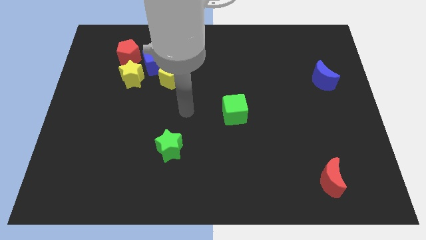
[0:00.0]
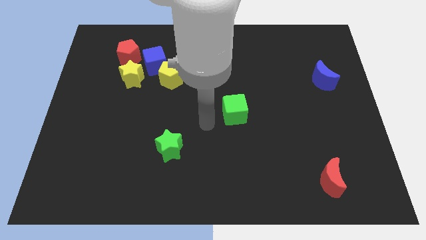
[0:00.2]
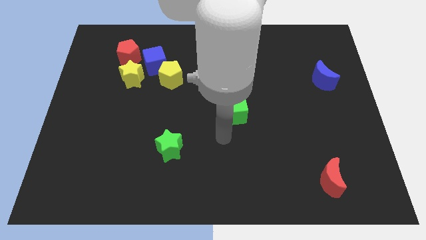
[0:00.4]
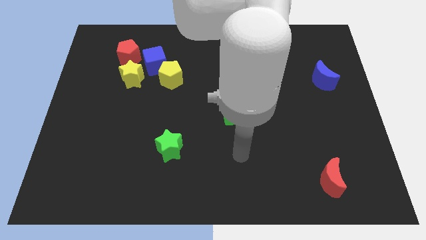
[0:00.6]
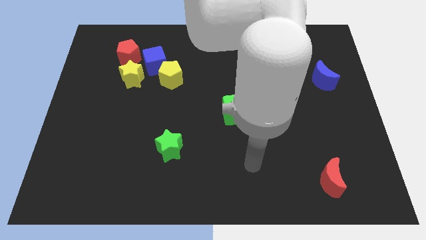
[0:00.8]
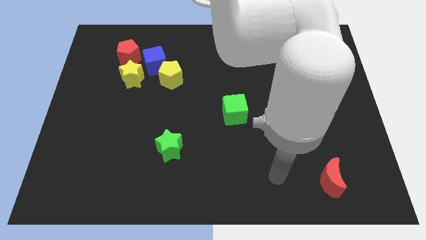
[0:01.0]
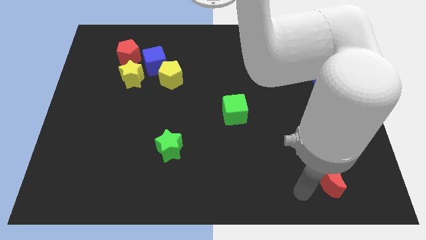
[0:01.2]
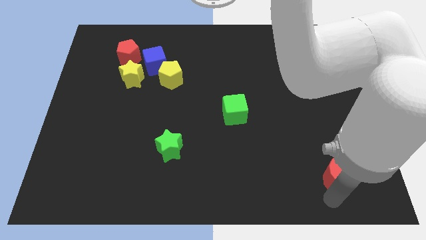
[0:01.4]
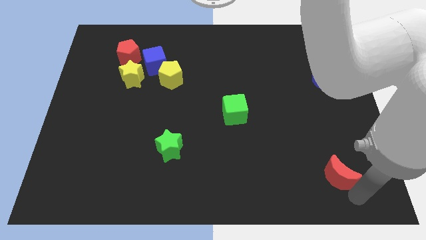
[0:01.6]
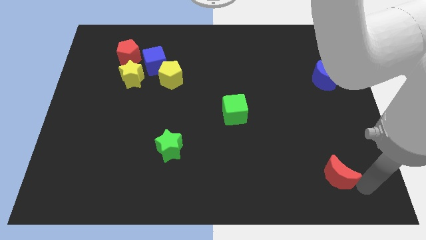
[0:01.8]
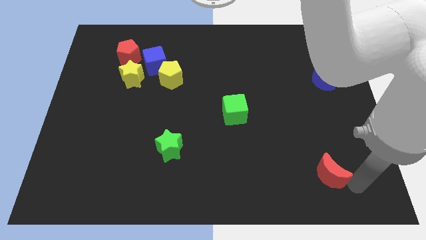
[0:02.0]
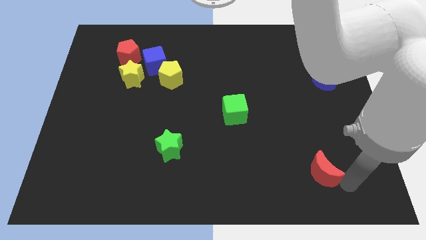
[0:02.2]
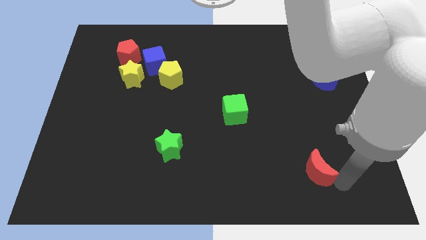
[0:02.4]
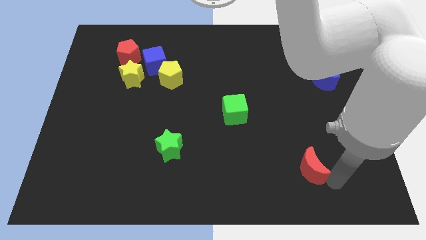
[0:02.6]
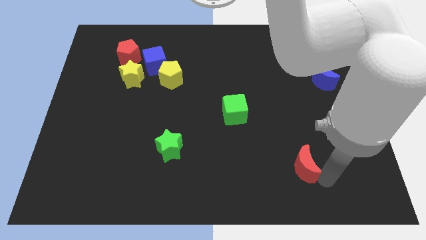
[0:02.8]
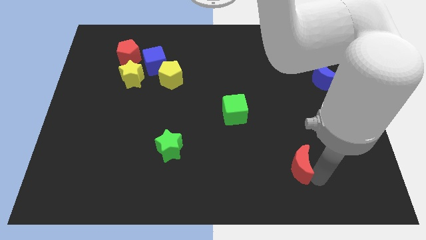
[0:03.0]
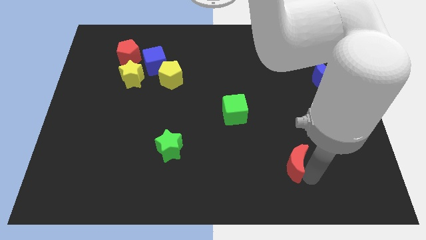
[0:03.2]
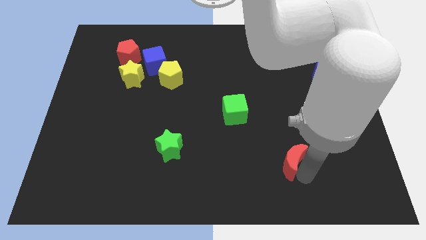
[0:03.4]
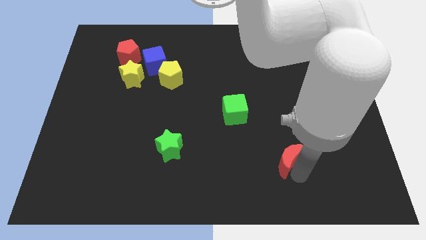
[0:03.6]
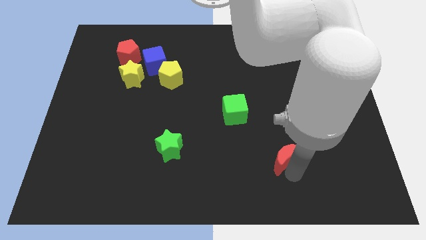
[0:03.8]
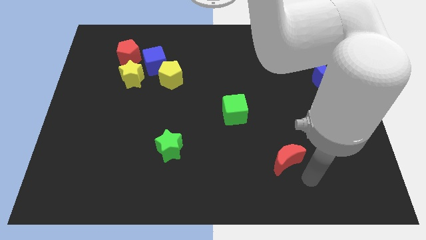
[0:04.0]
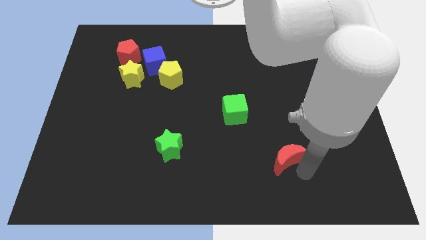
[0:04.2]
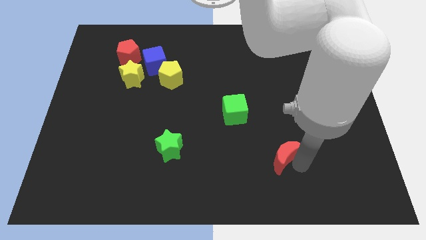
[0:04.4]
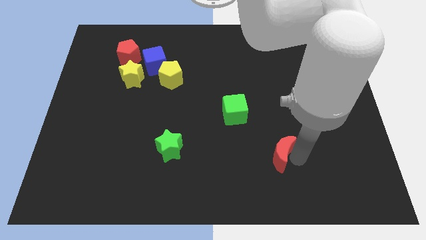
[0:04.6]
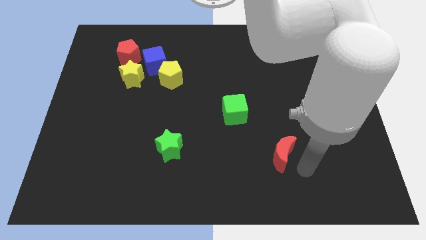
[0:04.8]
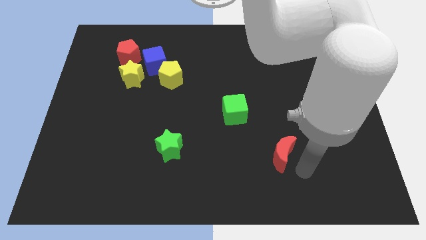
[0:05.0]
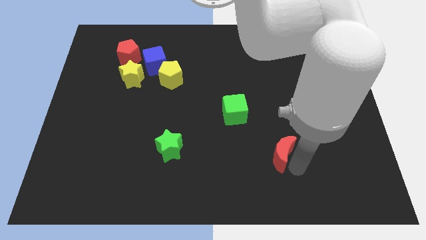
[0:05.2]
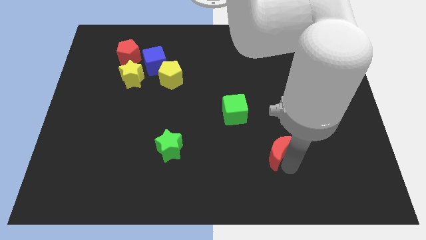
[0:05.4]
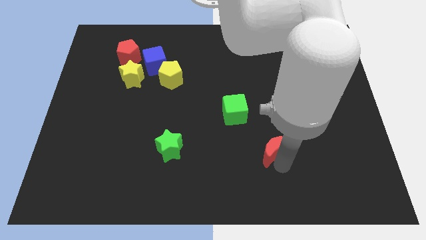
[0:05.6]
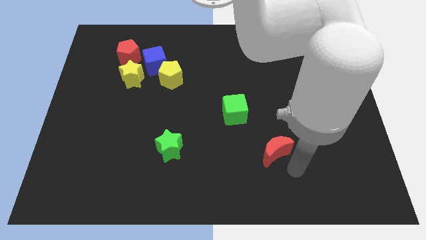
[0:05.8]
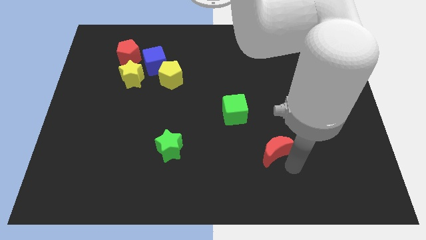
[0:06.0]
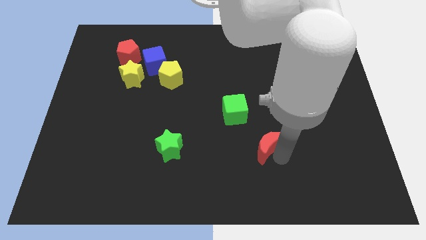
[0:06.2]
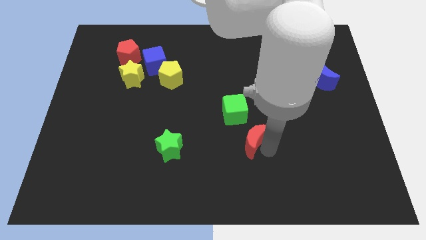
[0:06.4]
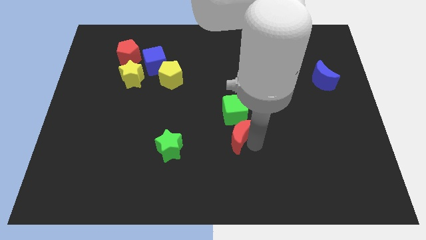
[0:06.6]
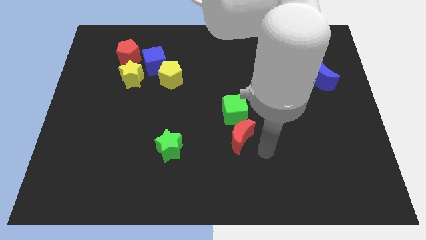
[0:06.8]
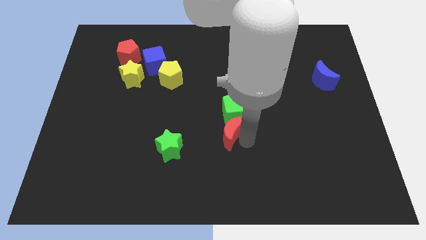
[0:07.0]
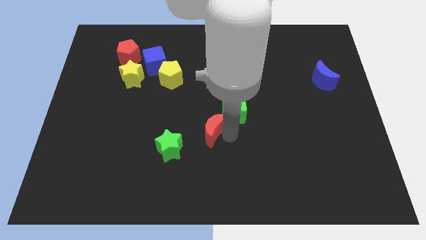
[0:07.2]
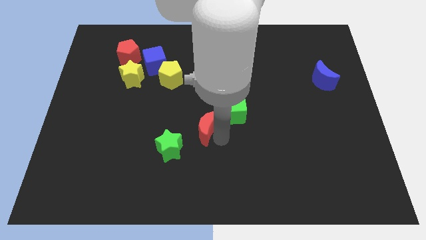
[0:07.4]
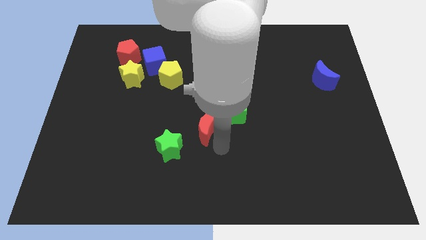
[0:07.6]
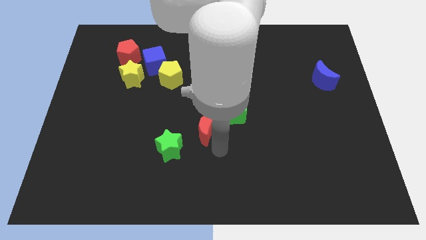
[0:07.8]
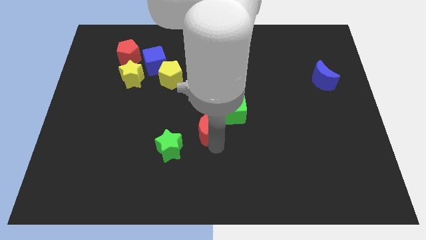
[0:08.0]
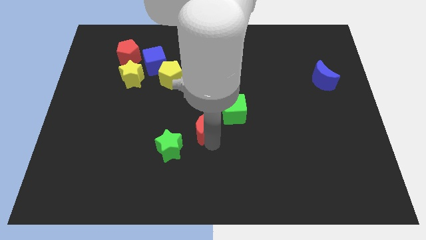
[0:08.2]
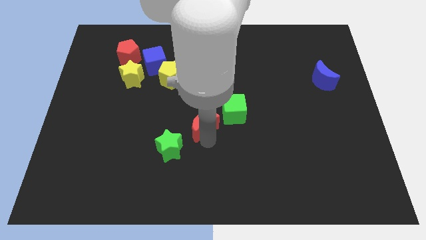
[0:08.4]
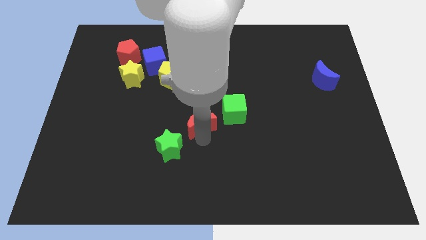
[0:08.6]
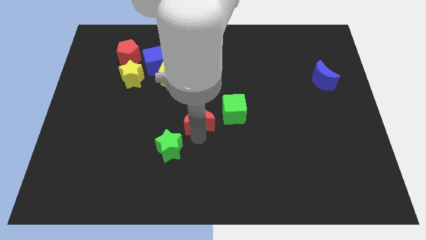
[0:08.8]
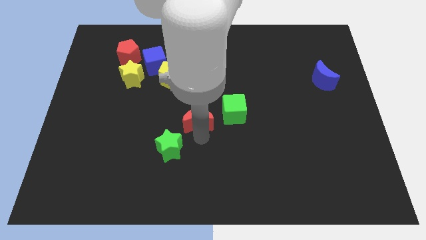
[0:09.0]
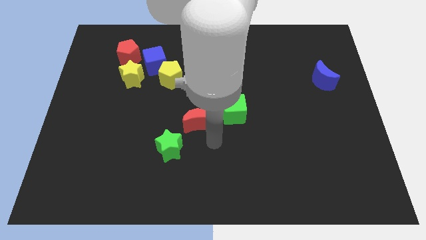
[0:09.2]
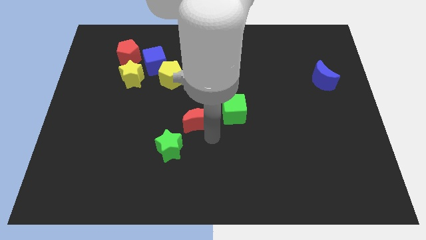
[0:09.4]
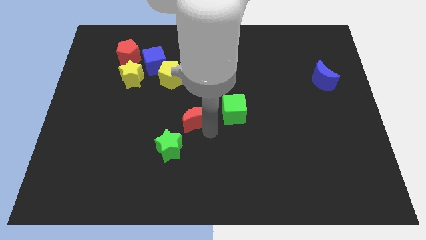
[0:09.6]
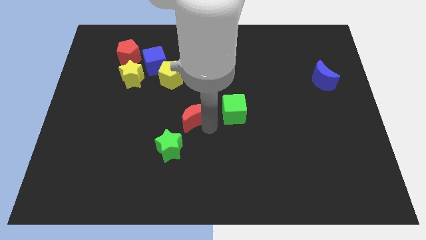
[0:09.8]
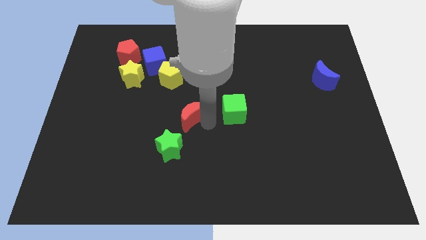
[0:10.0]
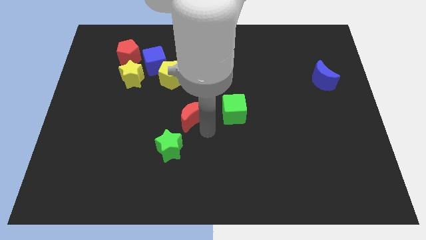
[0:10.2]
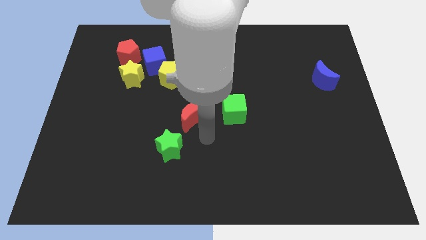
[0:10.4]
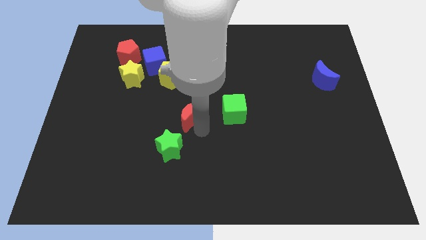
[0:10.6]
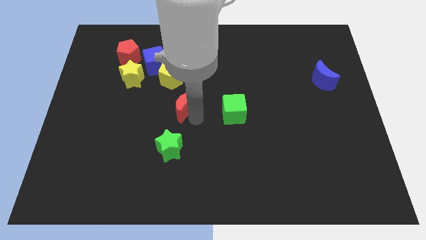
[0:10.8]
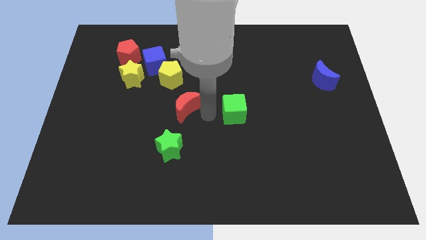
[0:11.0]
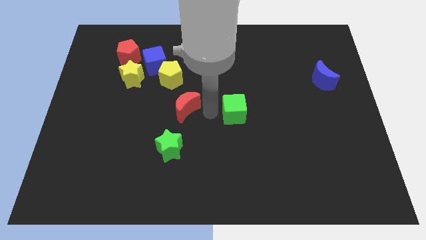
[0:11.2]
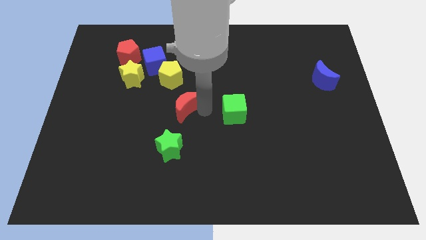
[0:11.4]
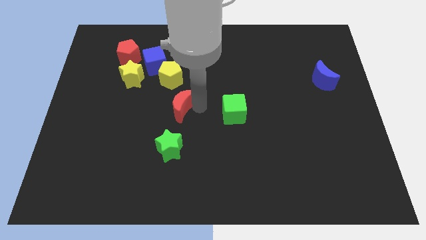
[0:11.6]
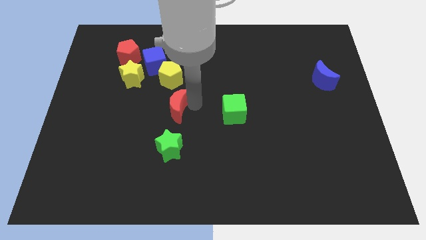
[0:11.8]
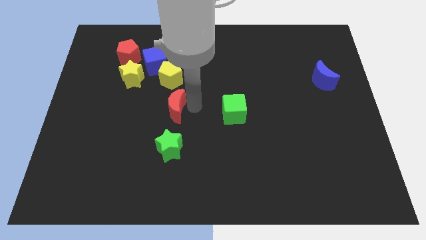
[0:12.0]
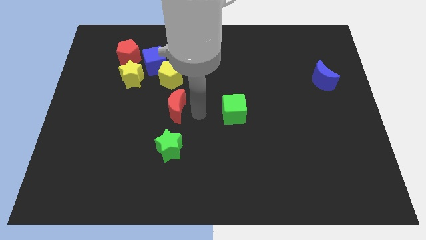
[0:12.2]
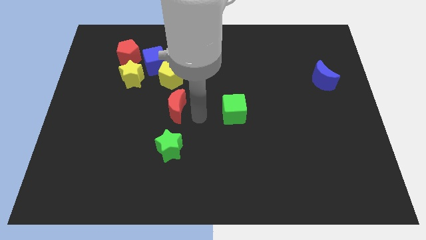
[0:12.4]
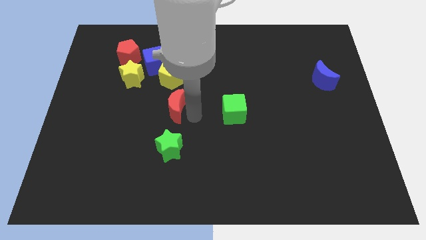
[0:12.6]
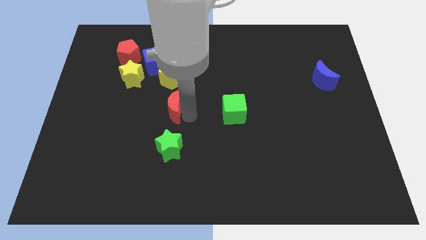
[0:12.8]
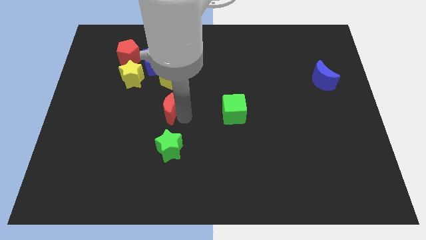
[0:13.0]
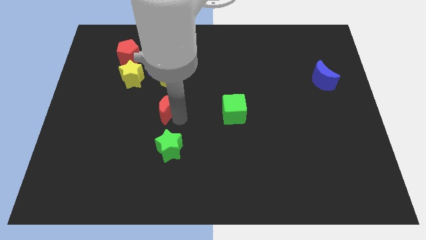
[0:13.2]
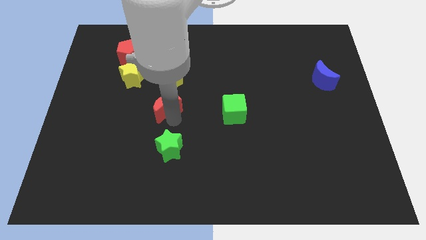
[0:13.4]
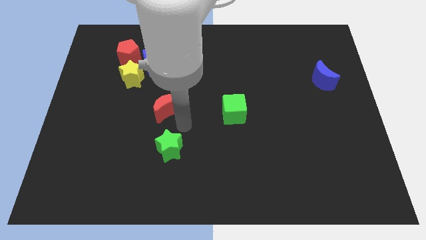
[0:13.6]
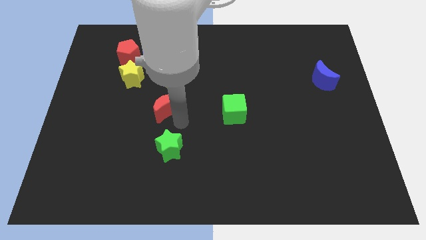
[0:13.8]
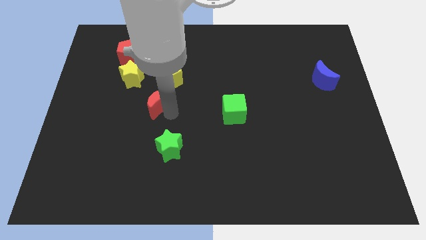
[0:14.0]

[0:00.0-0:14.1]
slide the red moon diagonally down and to the right of the yellow star
